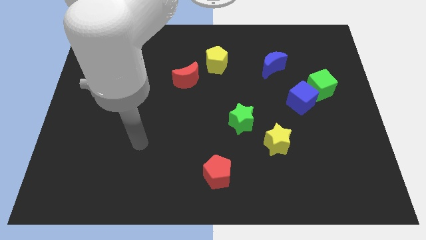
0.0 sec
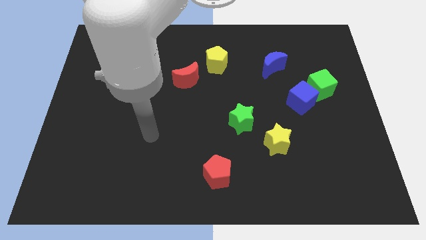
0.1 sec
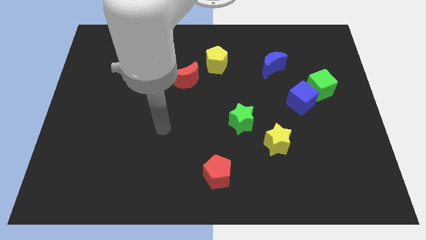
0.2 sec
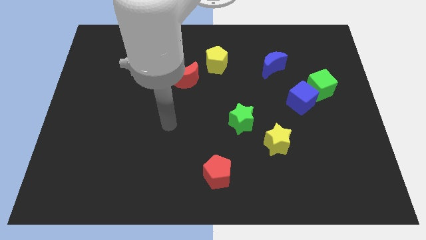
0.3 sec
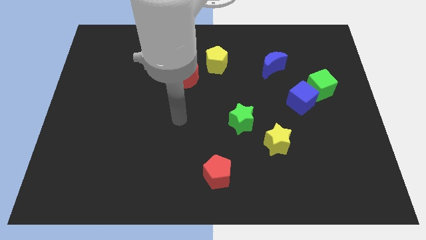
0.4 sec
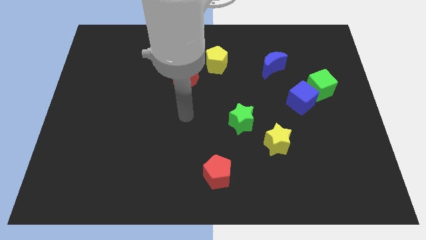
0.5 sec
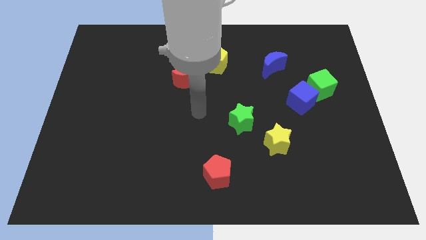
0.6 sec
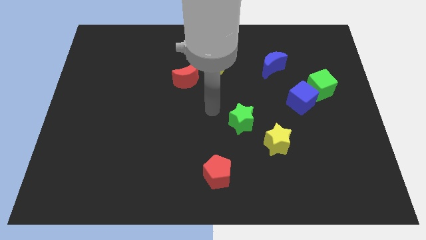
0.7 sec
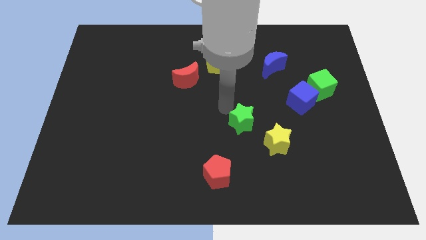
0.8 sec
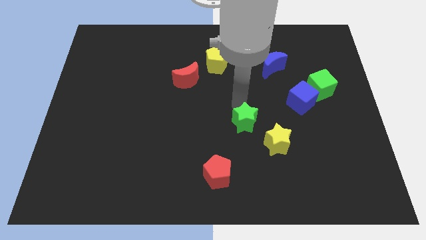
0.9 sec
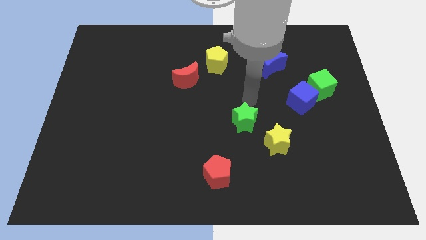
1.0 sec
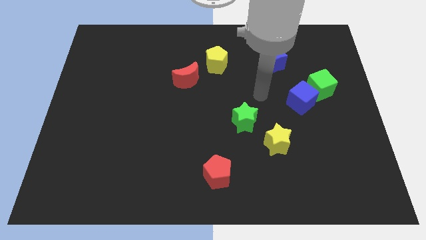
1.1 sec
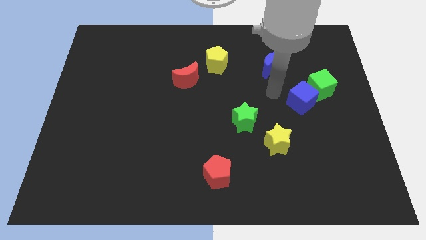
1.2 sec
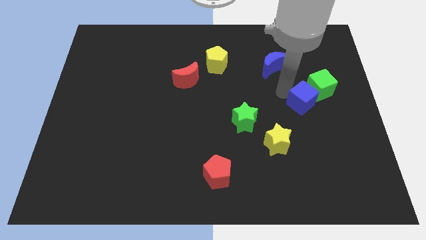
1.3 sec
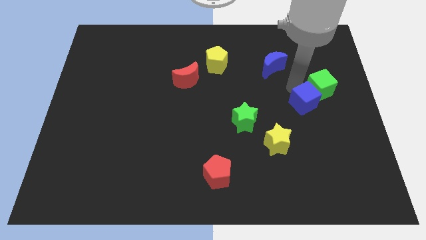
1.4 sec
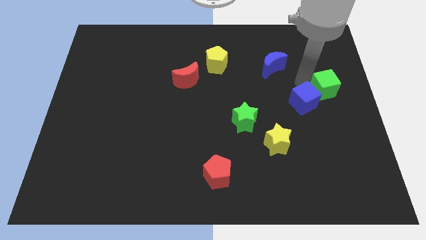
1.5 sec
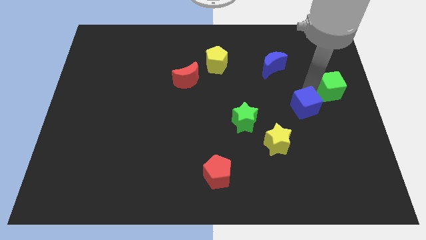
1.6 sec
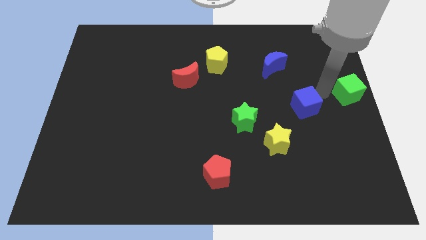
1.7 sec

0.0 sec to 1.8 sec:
move the blue cube away from the green cube

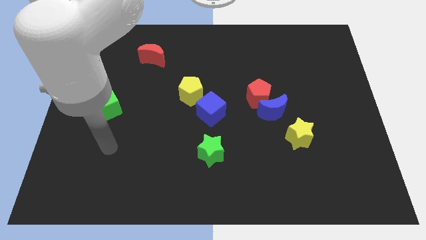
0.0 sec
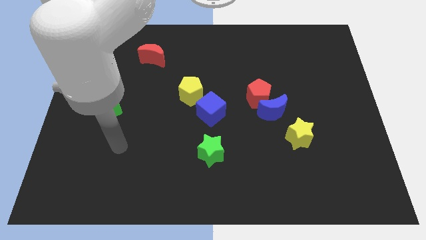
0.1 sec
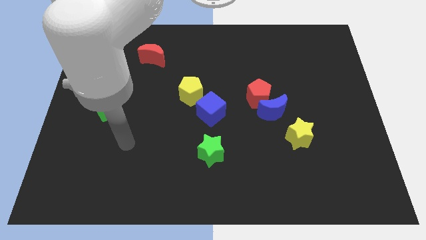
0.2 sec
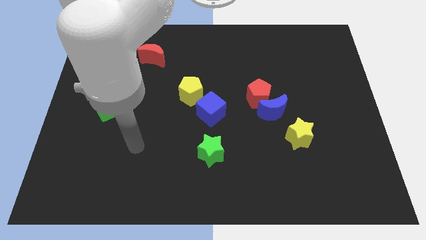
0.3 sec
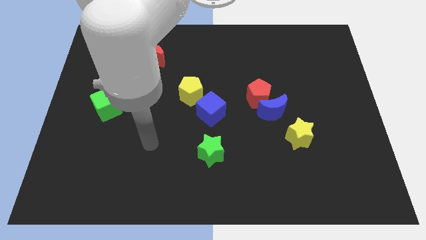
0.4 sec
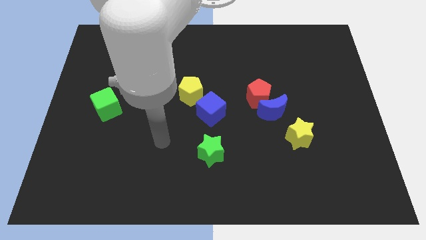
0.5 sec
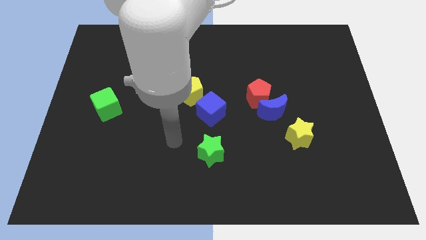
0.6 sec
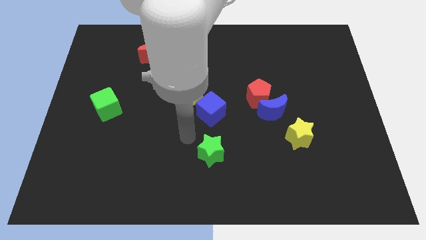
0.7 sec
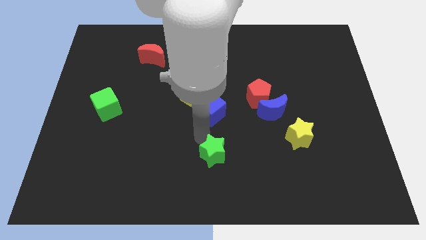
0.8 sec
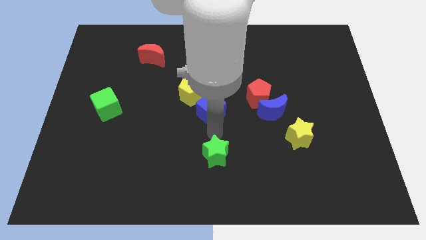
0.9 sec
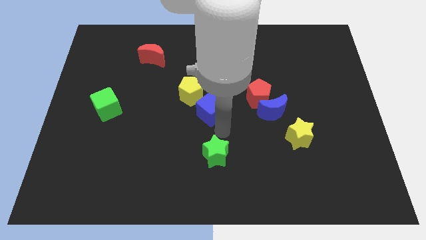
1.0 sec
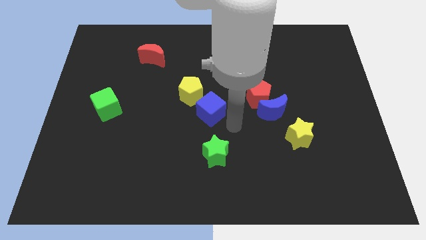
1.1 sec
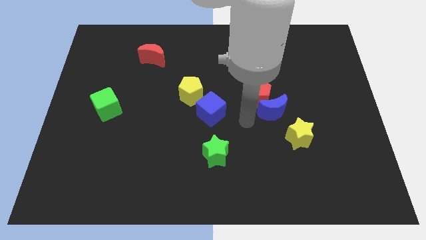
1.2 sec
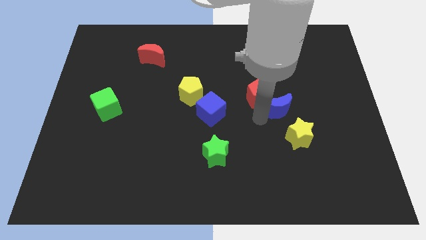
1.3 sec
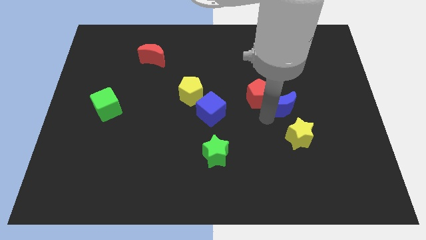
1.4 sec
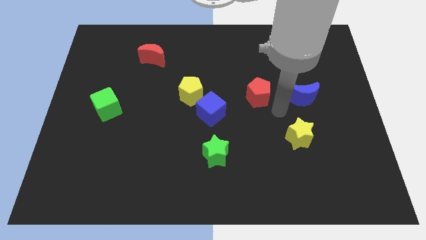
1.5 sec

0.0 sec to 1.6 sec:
separate the red pentagon from the blue moon

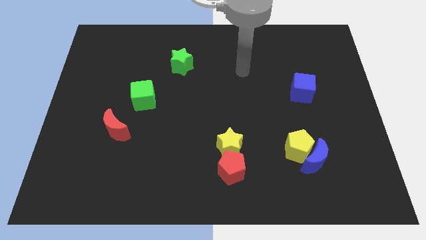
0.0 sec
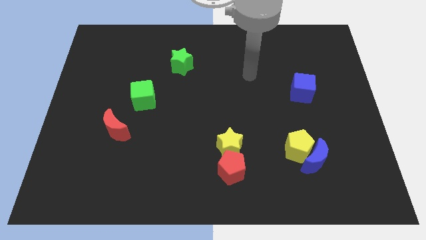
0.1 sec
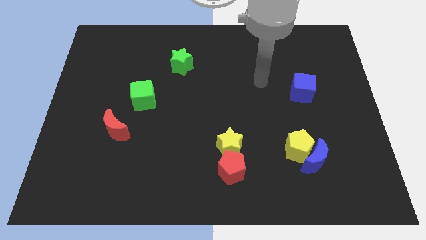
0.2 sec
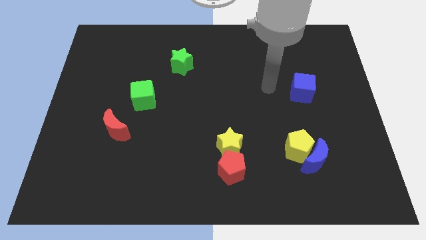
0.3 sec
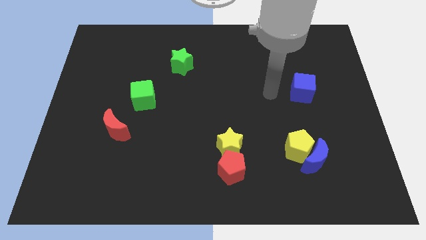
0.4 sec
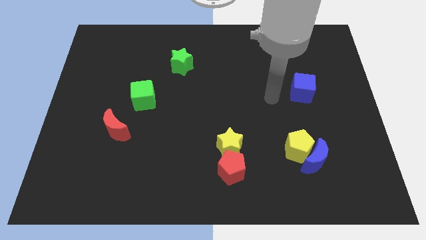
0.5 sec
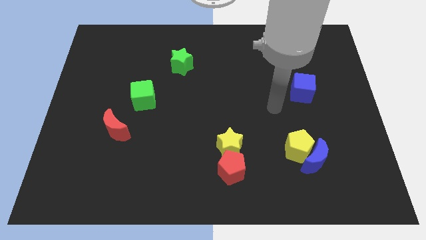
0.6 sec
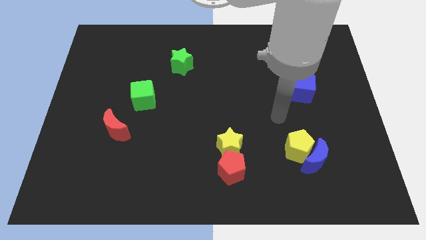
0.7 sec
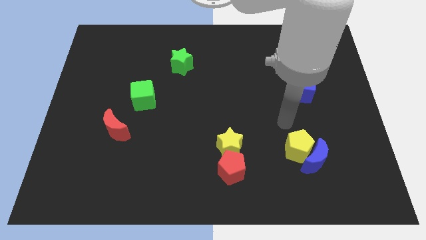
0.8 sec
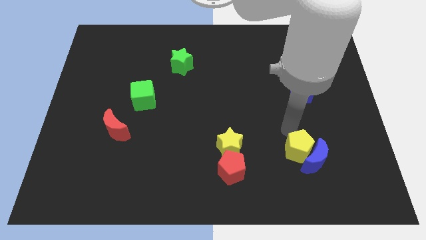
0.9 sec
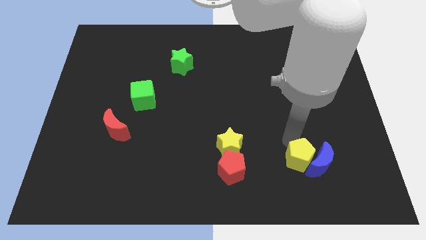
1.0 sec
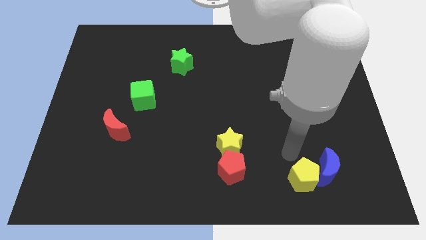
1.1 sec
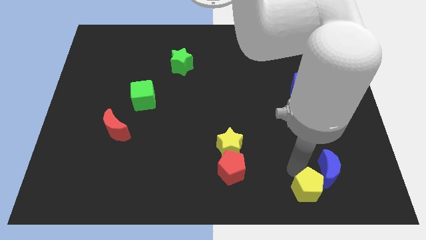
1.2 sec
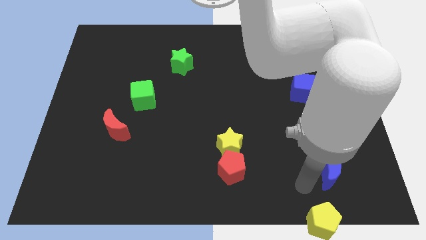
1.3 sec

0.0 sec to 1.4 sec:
pull the blue moon apart from the yellow pentagon

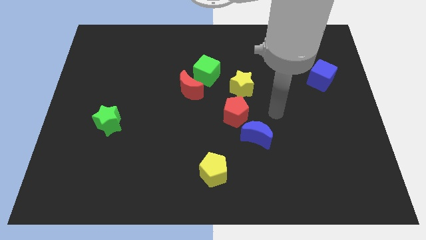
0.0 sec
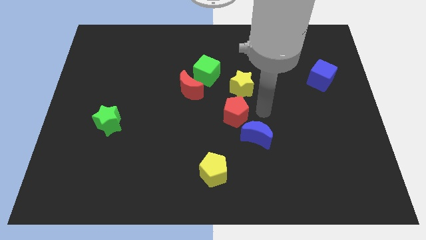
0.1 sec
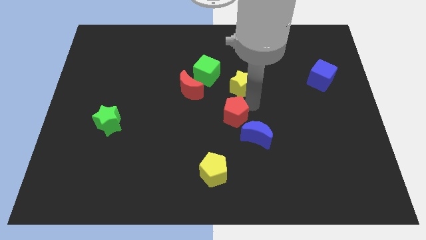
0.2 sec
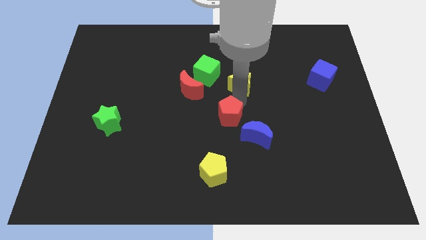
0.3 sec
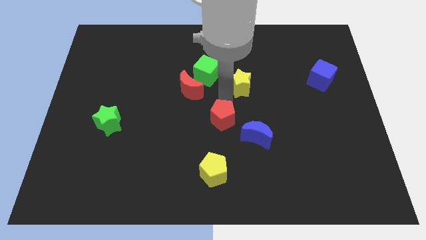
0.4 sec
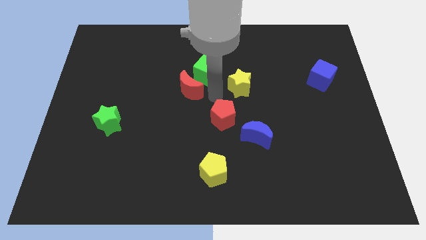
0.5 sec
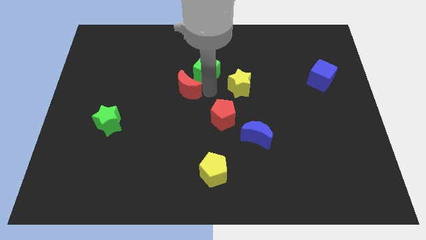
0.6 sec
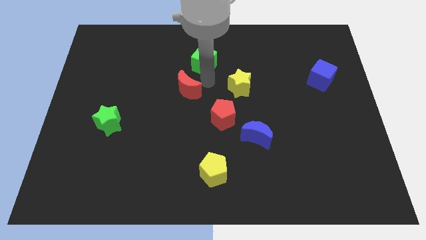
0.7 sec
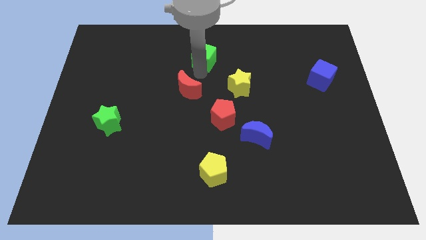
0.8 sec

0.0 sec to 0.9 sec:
pull the red moon apart from the green cube

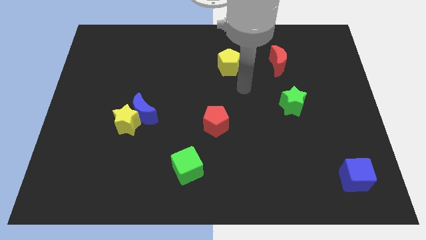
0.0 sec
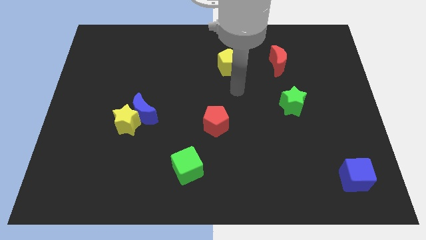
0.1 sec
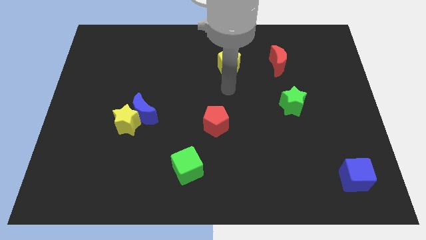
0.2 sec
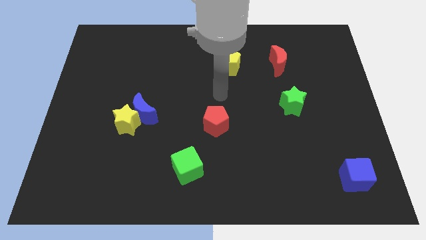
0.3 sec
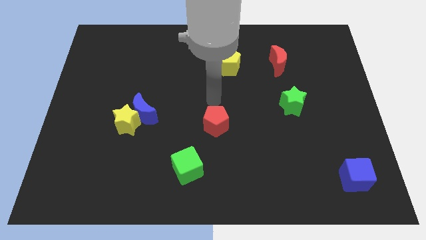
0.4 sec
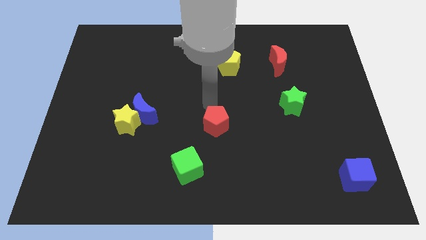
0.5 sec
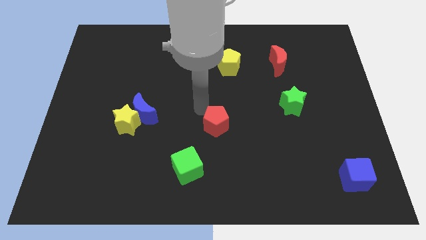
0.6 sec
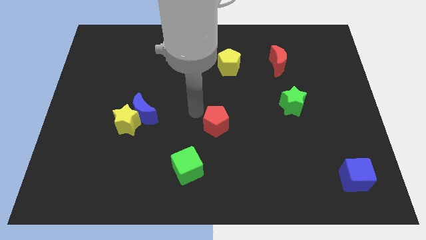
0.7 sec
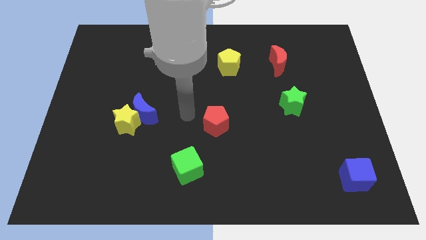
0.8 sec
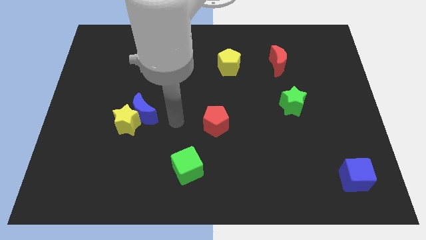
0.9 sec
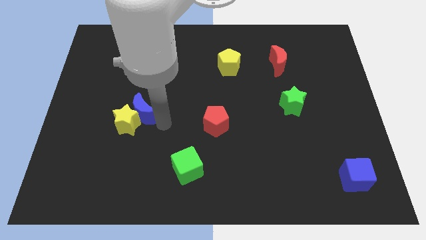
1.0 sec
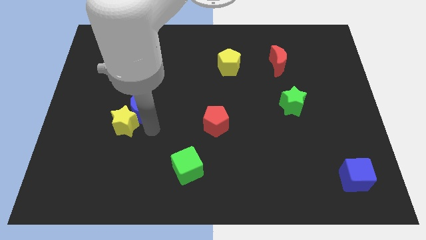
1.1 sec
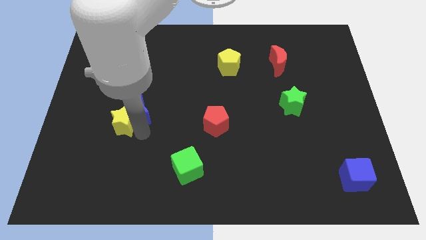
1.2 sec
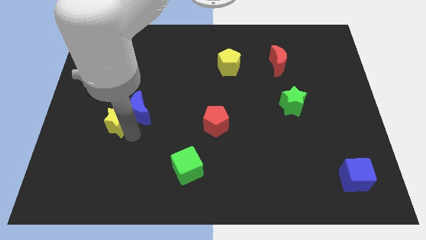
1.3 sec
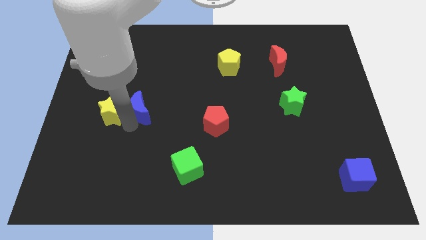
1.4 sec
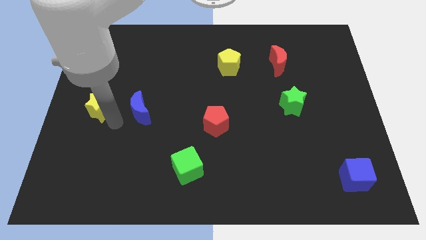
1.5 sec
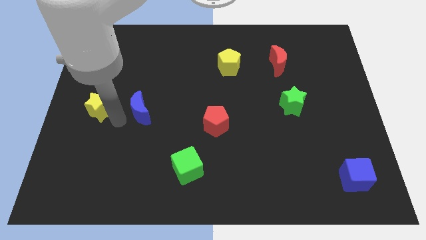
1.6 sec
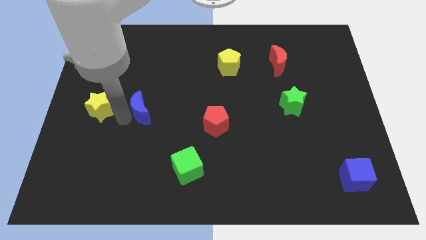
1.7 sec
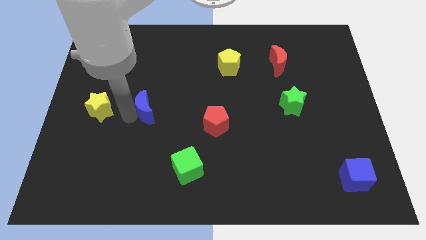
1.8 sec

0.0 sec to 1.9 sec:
pull the blue moon apart from the yellow star

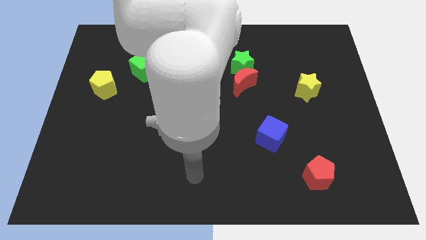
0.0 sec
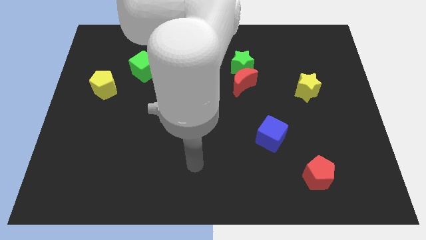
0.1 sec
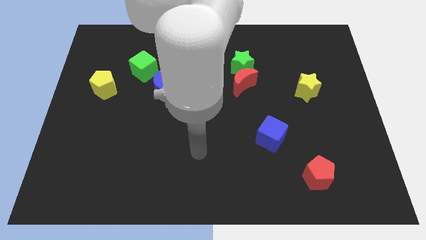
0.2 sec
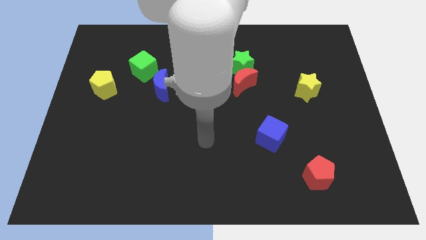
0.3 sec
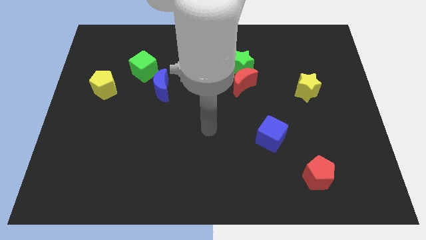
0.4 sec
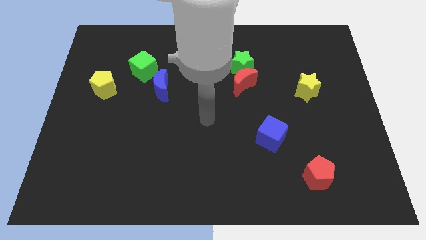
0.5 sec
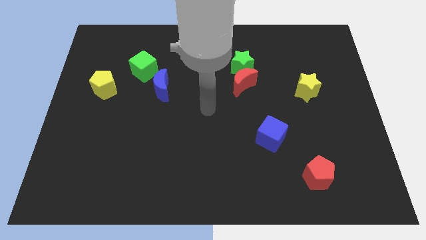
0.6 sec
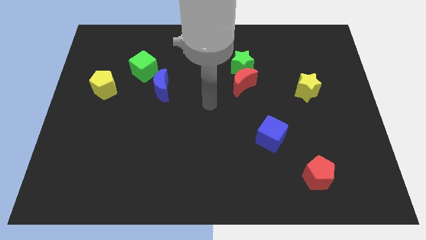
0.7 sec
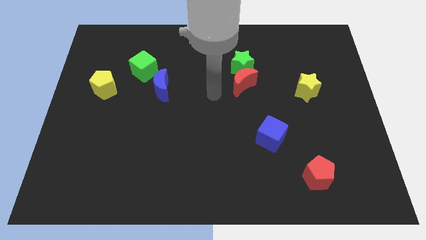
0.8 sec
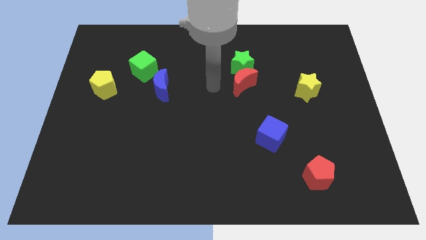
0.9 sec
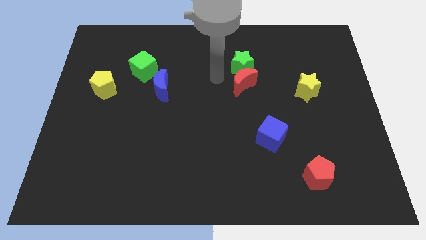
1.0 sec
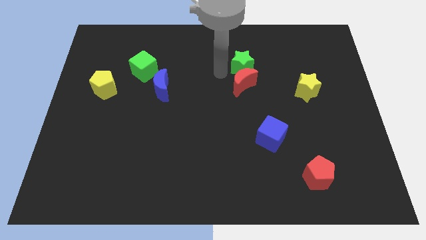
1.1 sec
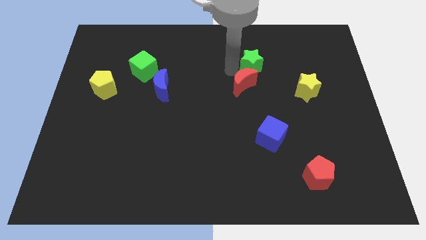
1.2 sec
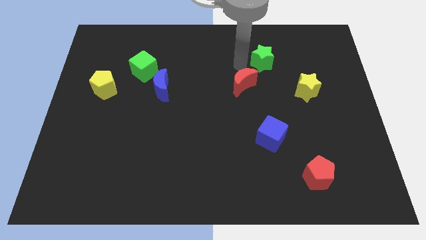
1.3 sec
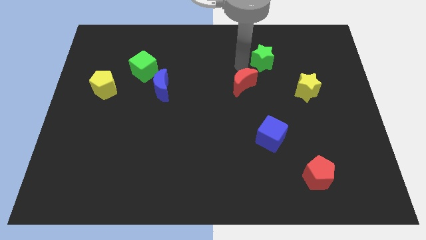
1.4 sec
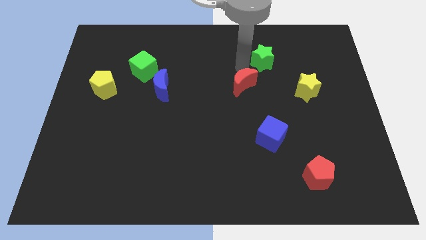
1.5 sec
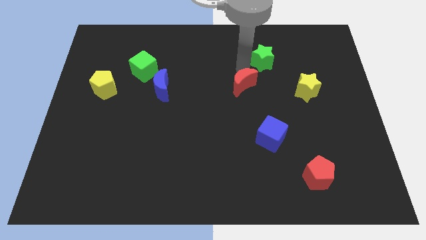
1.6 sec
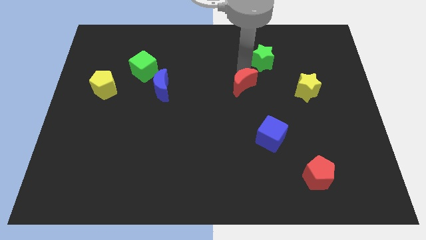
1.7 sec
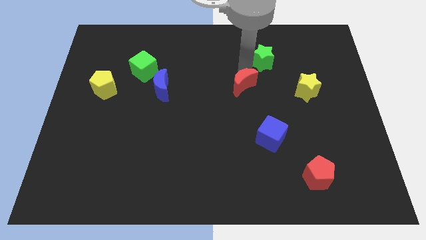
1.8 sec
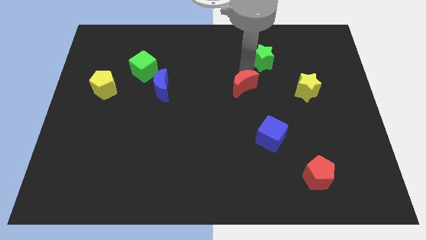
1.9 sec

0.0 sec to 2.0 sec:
pull the red moon apart from the green star
